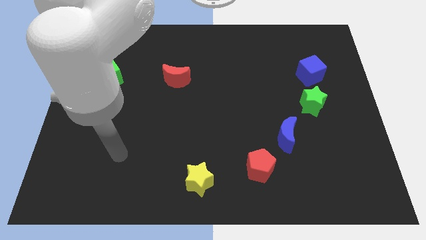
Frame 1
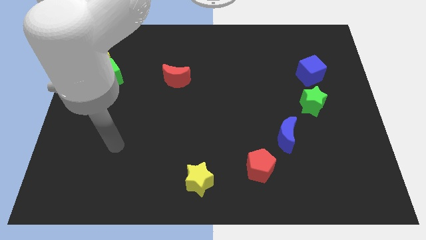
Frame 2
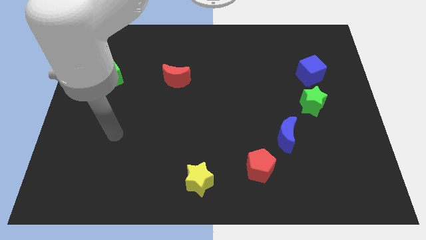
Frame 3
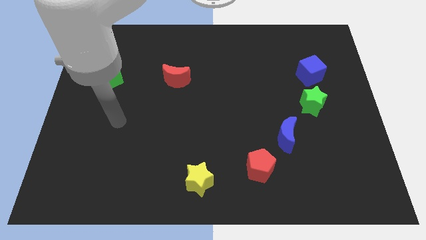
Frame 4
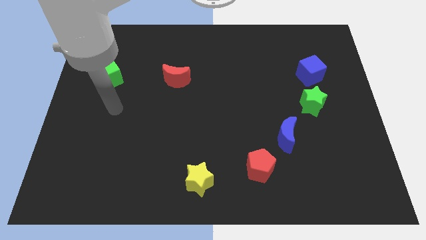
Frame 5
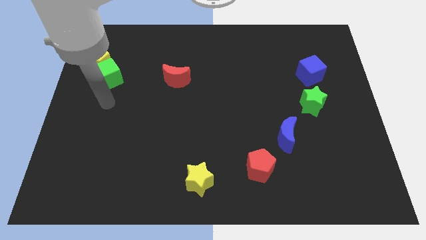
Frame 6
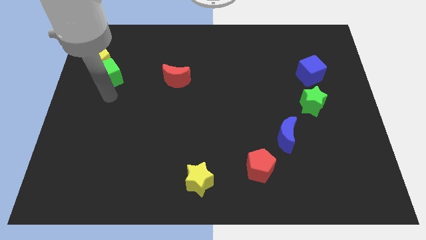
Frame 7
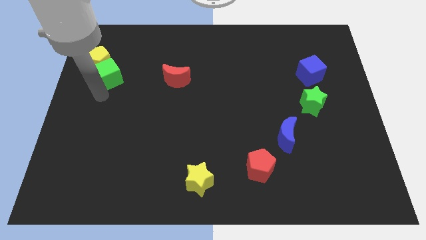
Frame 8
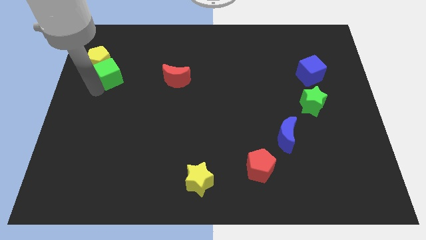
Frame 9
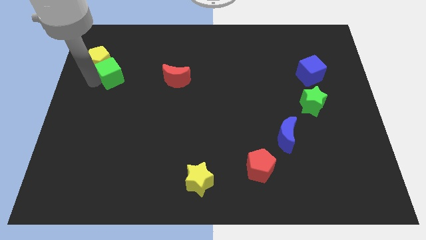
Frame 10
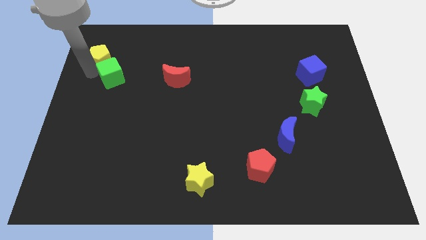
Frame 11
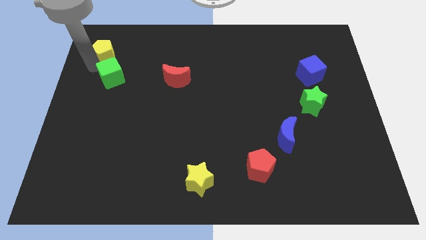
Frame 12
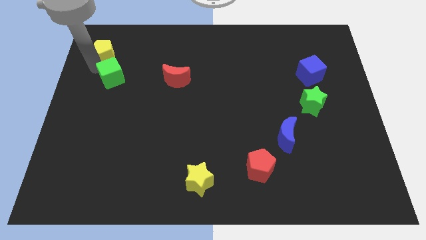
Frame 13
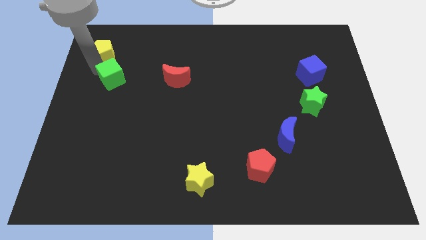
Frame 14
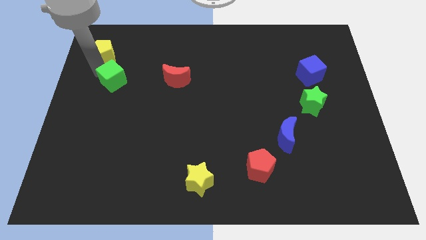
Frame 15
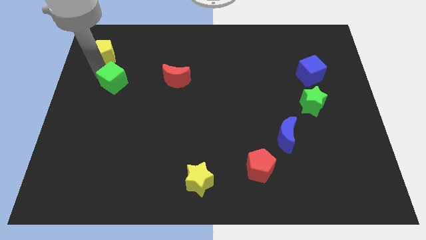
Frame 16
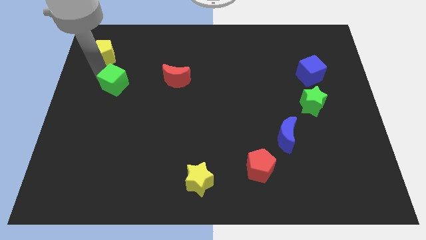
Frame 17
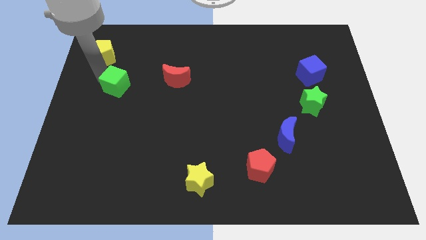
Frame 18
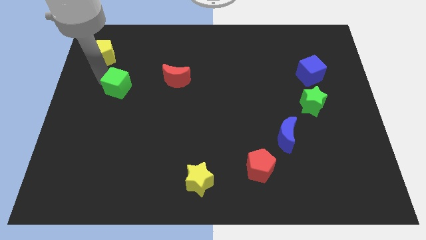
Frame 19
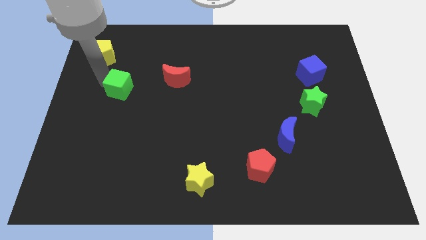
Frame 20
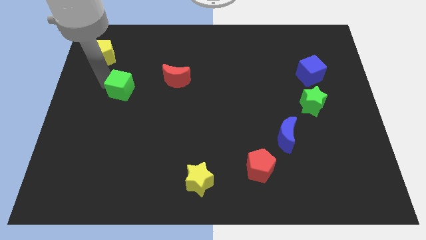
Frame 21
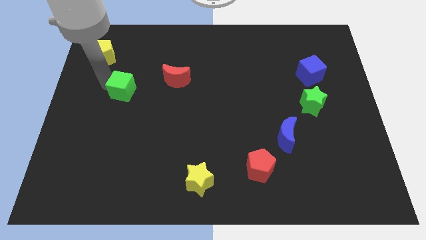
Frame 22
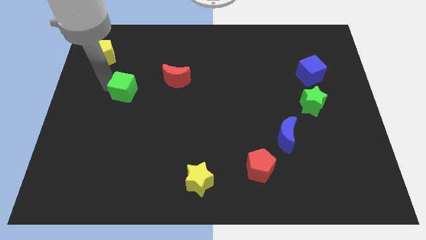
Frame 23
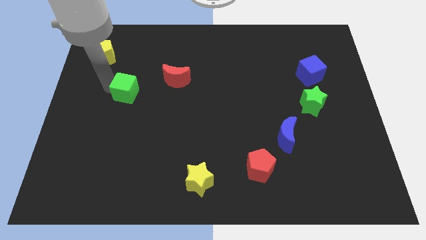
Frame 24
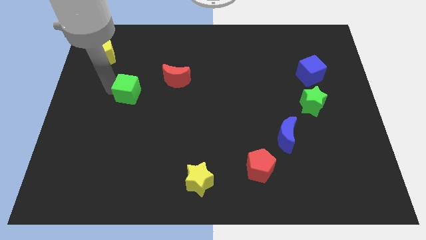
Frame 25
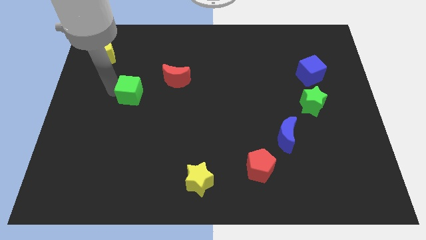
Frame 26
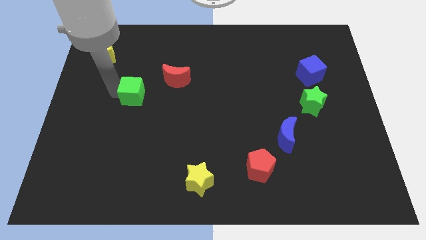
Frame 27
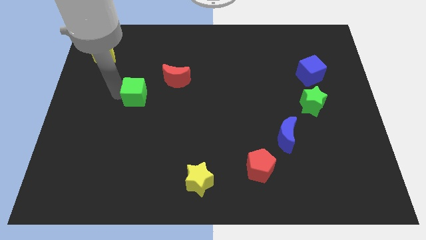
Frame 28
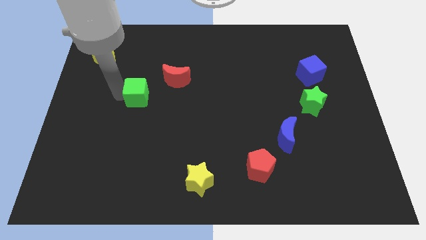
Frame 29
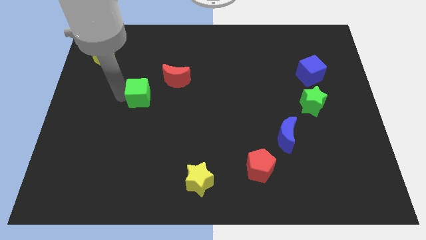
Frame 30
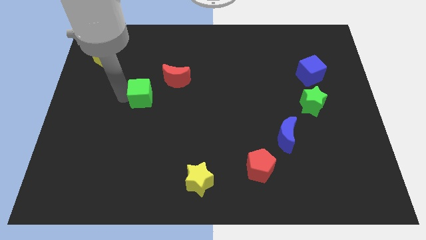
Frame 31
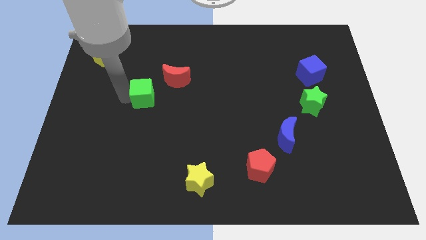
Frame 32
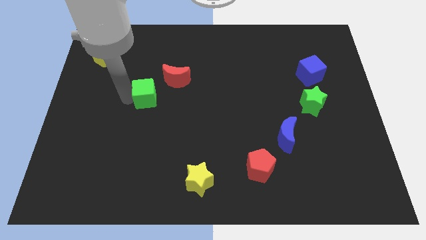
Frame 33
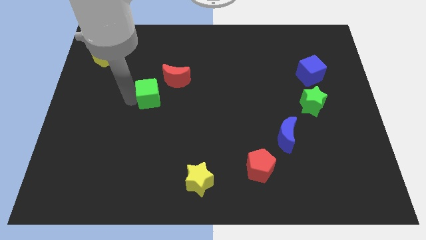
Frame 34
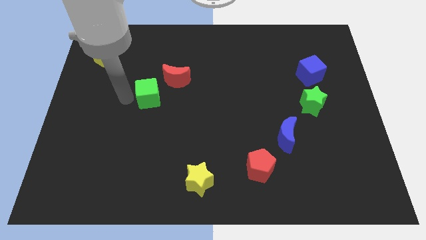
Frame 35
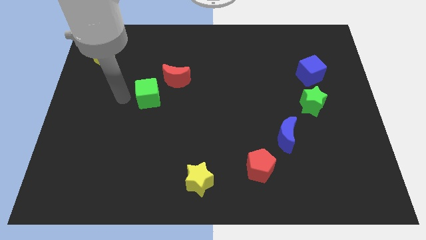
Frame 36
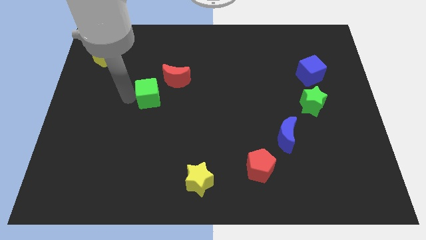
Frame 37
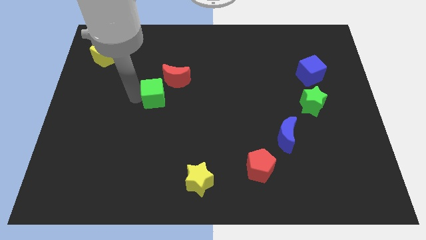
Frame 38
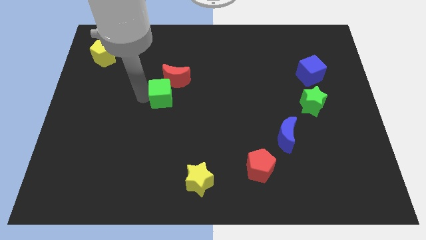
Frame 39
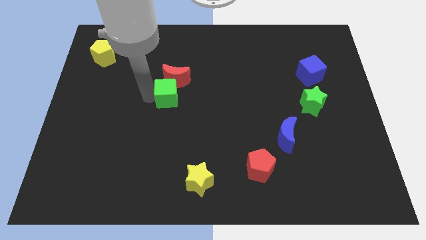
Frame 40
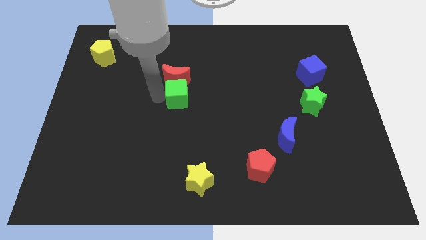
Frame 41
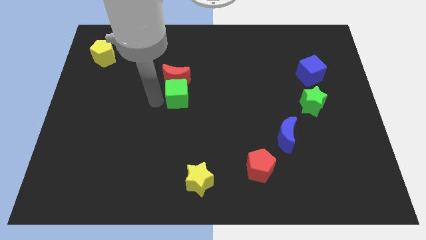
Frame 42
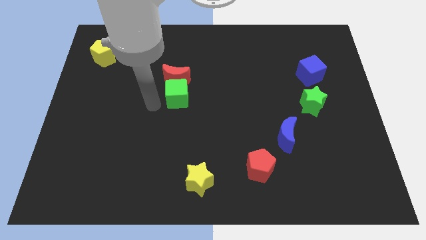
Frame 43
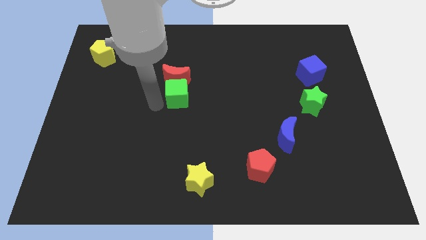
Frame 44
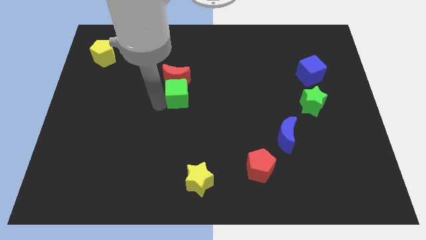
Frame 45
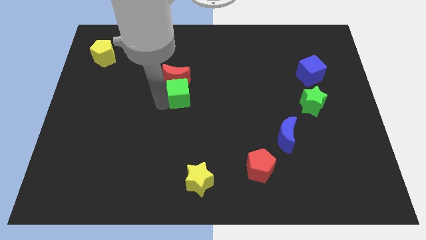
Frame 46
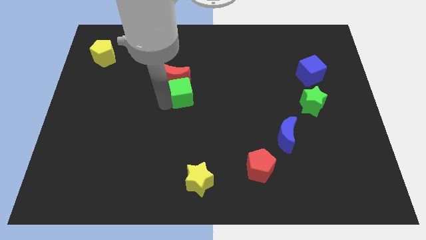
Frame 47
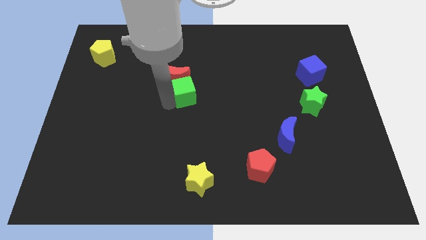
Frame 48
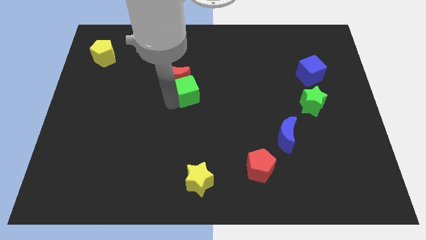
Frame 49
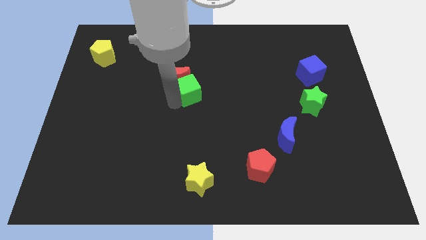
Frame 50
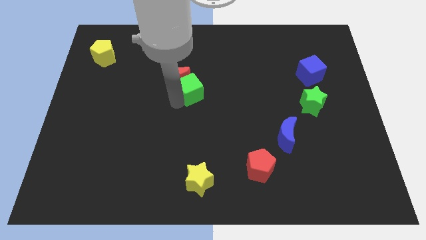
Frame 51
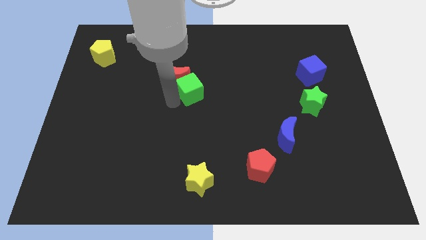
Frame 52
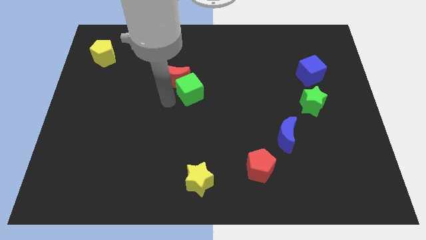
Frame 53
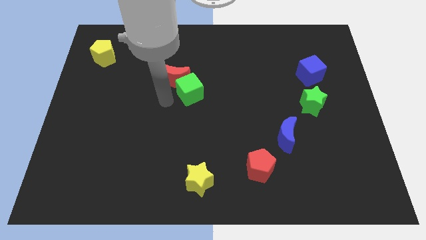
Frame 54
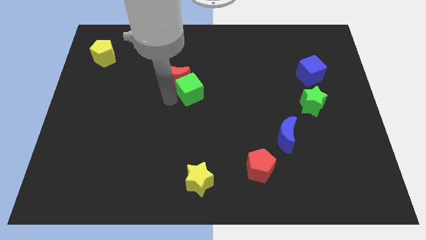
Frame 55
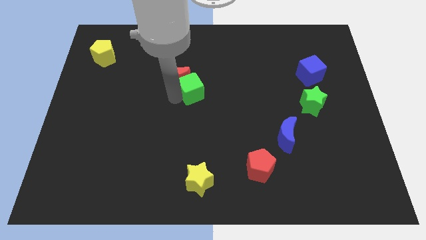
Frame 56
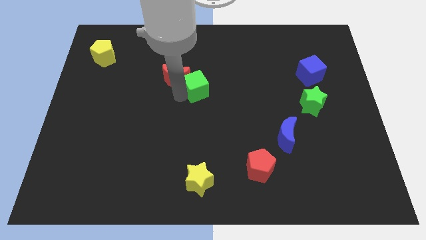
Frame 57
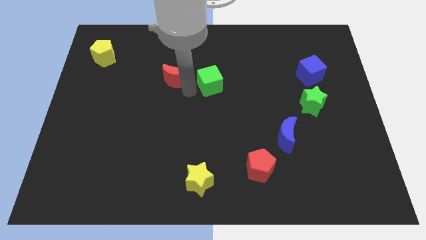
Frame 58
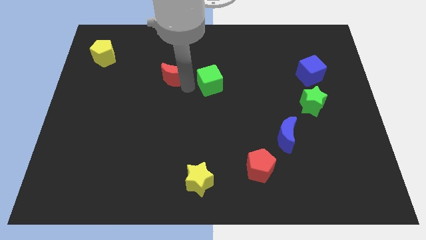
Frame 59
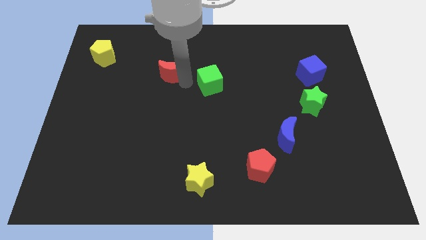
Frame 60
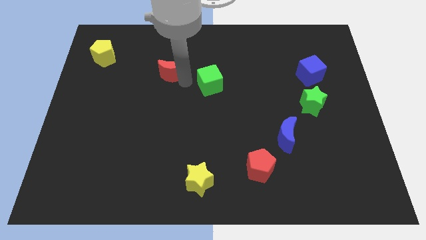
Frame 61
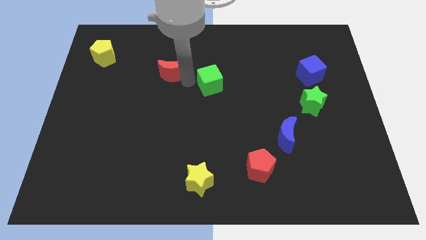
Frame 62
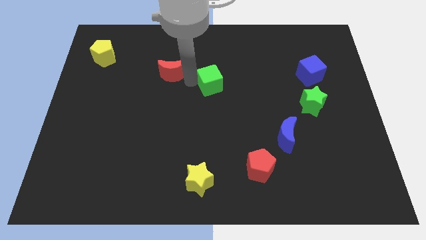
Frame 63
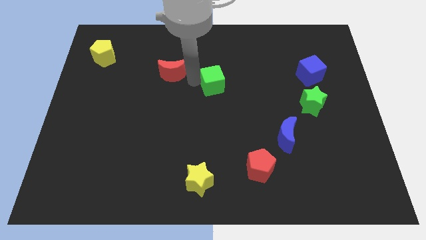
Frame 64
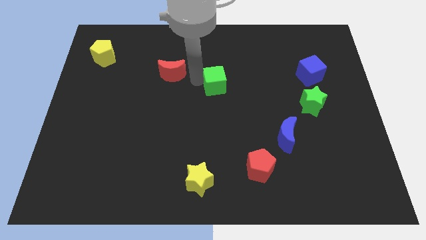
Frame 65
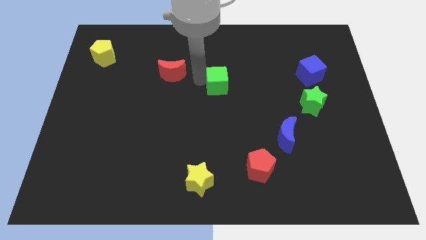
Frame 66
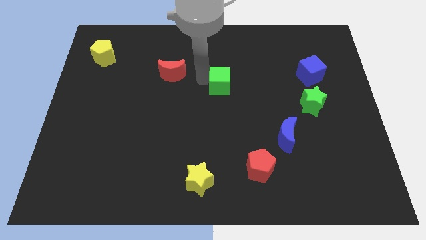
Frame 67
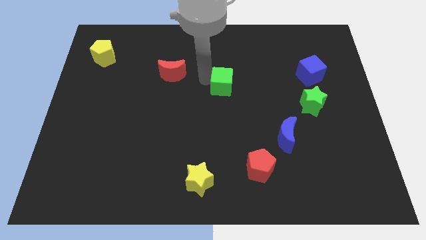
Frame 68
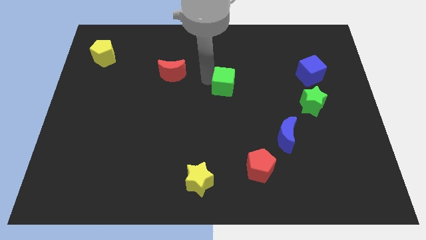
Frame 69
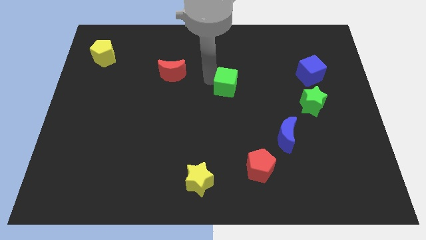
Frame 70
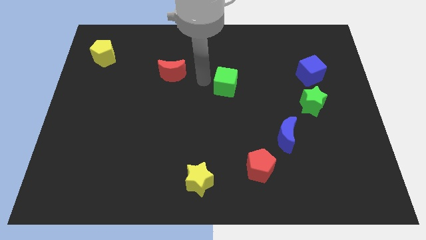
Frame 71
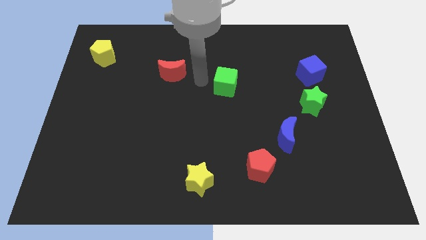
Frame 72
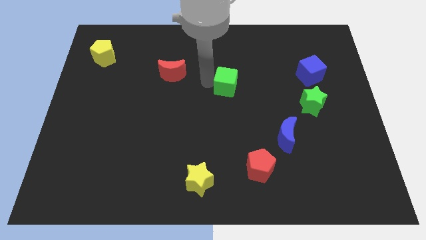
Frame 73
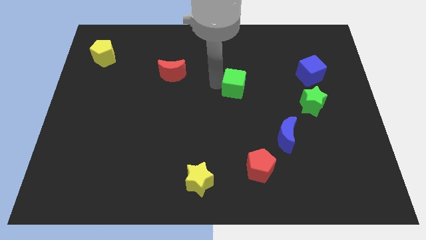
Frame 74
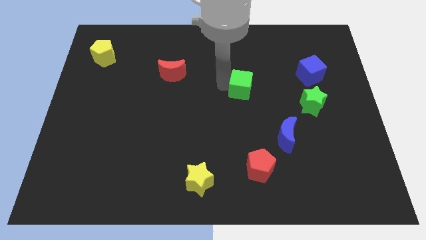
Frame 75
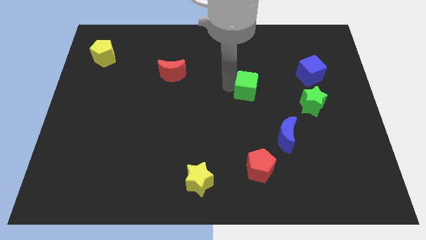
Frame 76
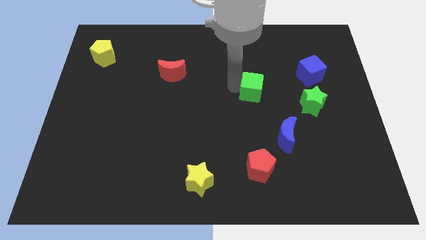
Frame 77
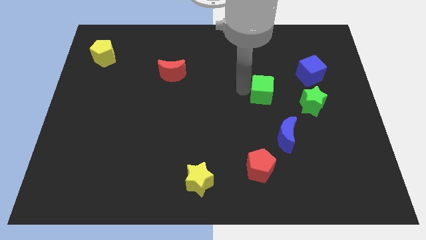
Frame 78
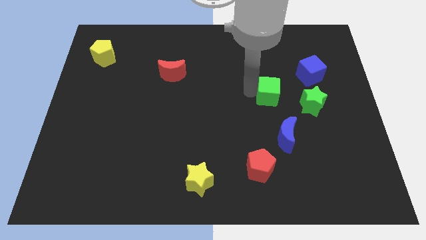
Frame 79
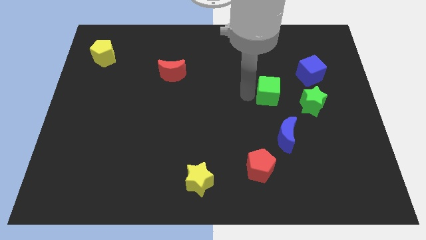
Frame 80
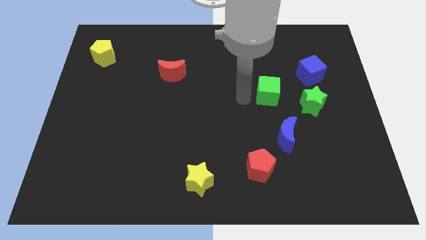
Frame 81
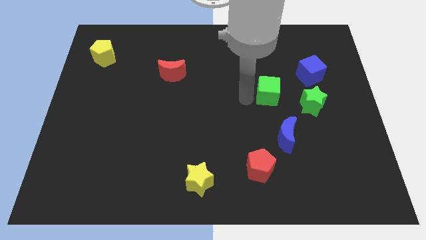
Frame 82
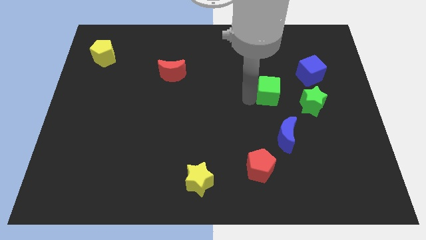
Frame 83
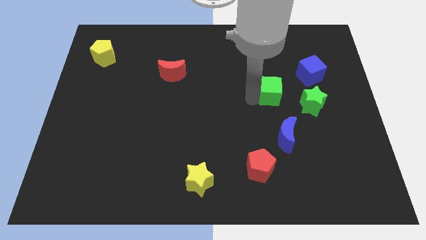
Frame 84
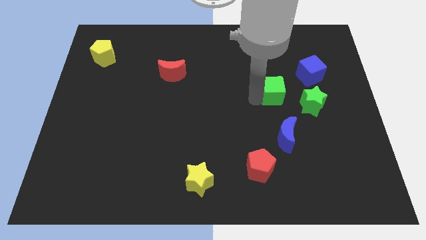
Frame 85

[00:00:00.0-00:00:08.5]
put the green cube to the bottom left of the blue cube
